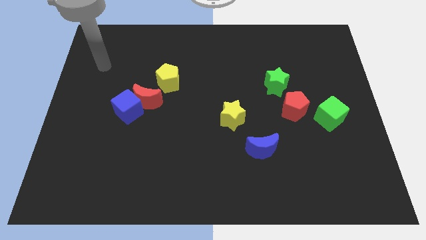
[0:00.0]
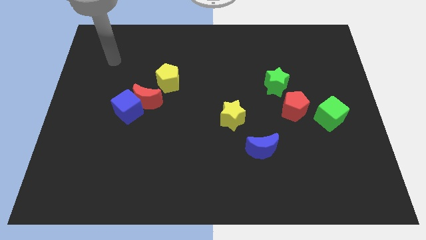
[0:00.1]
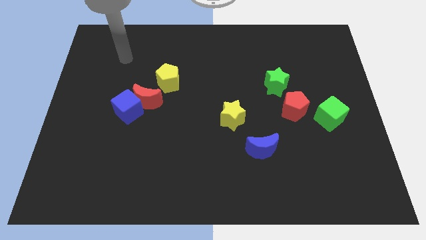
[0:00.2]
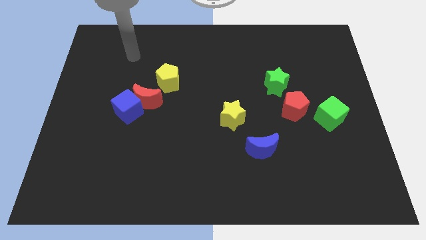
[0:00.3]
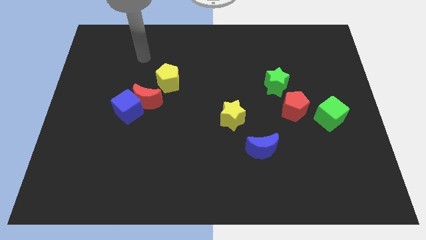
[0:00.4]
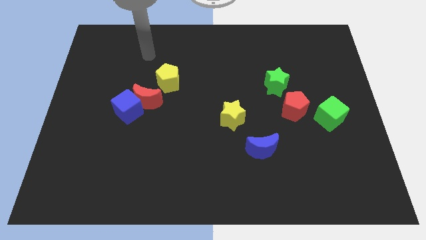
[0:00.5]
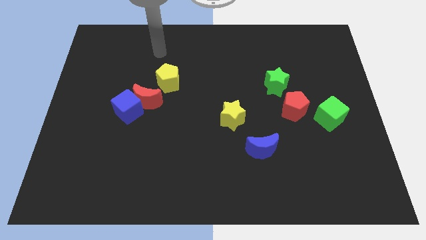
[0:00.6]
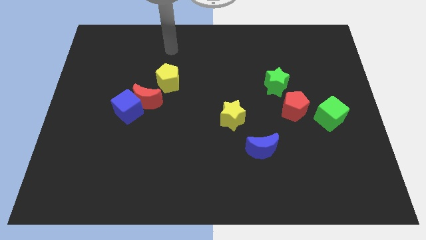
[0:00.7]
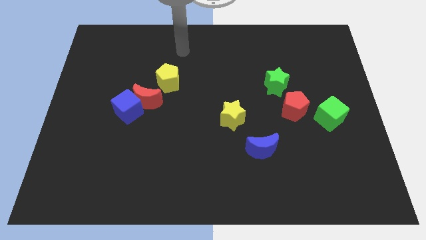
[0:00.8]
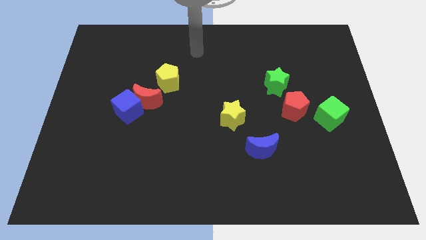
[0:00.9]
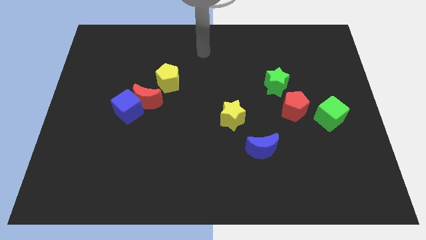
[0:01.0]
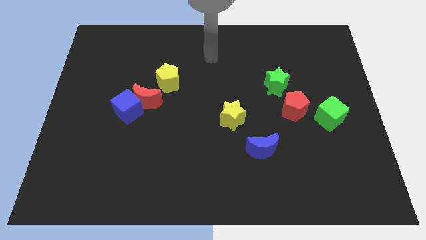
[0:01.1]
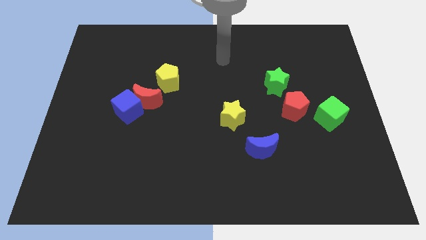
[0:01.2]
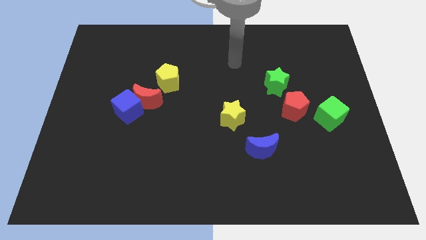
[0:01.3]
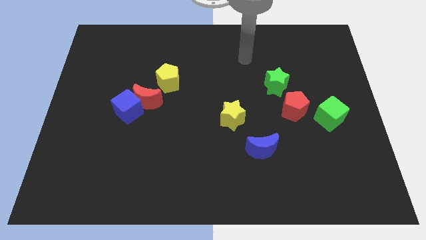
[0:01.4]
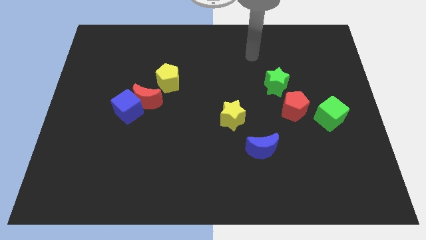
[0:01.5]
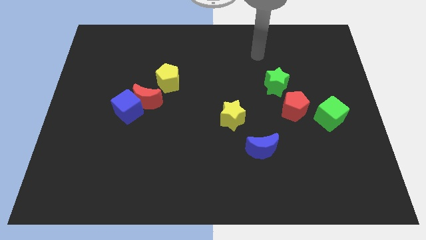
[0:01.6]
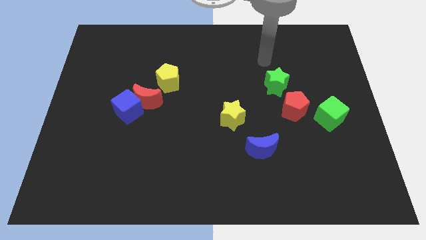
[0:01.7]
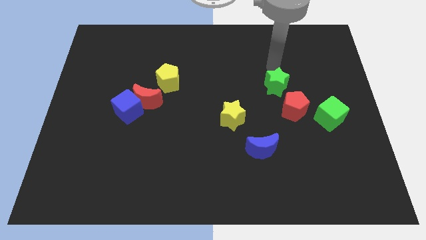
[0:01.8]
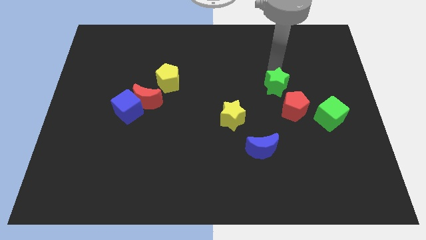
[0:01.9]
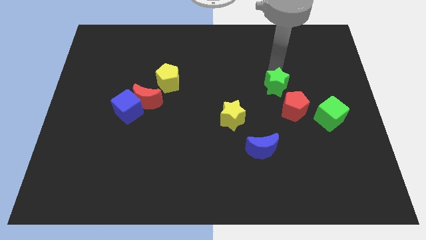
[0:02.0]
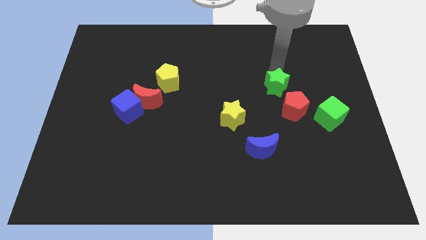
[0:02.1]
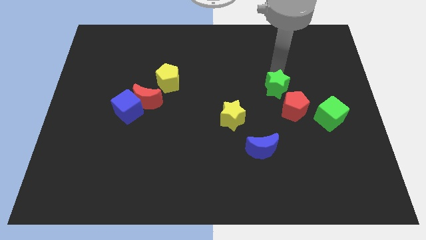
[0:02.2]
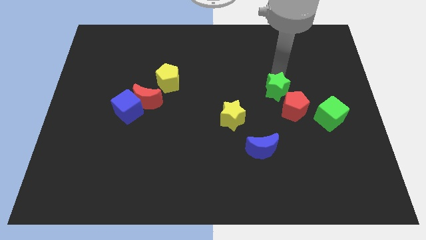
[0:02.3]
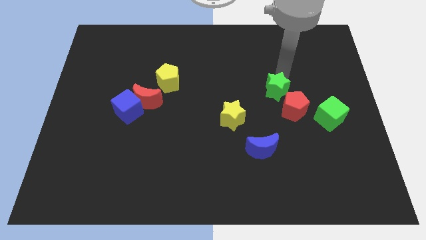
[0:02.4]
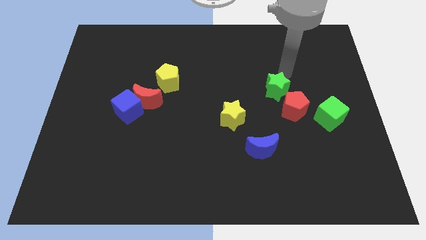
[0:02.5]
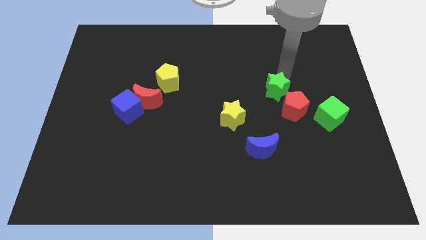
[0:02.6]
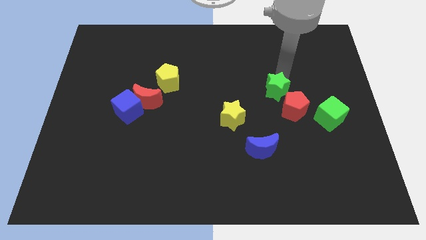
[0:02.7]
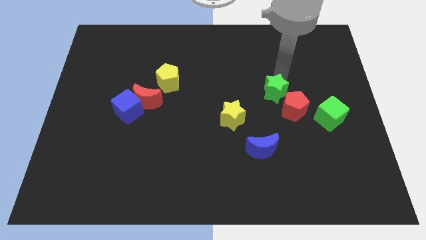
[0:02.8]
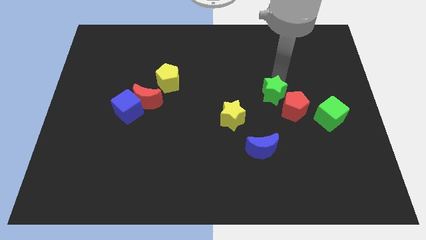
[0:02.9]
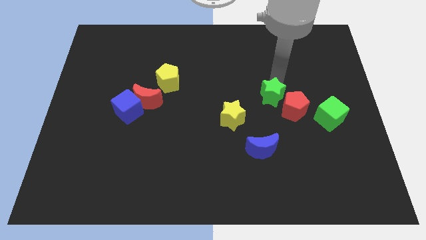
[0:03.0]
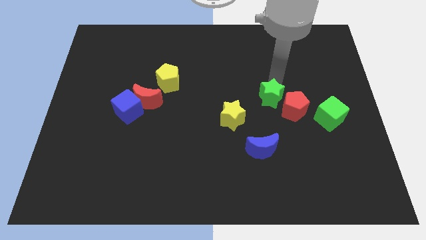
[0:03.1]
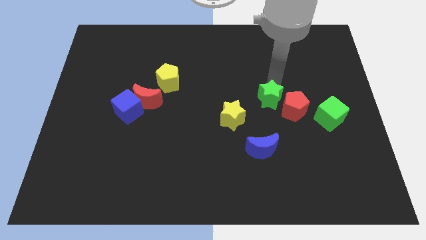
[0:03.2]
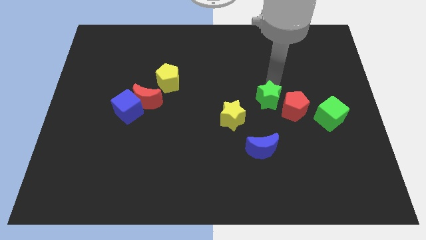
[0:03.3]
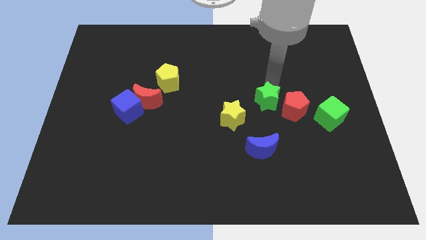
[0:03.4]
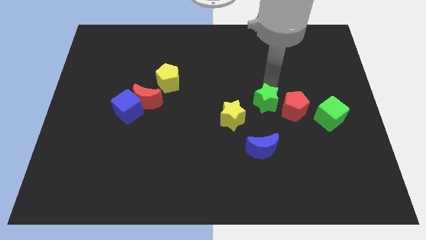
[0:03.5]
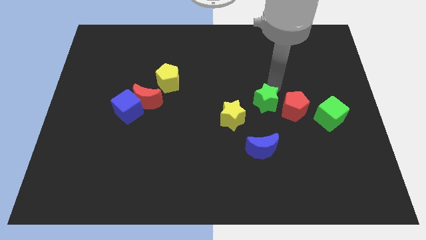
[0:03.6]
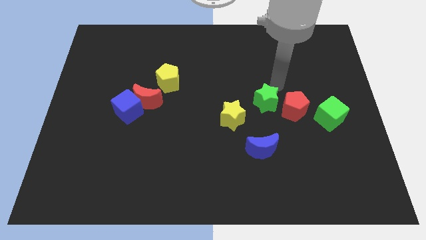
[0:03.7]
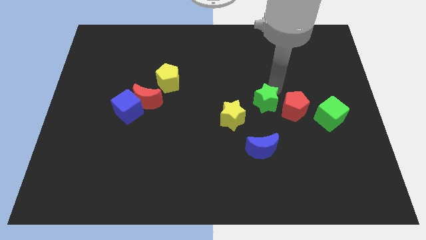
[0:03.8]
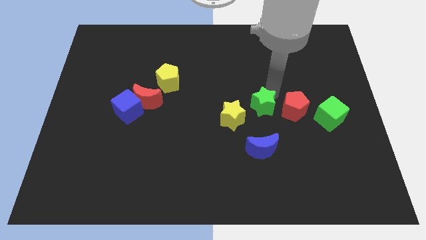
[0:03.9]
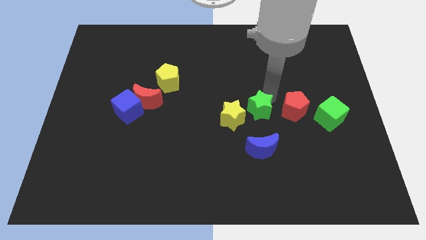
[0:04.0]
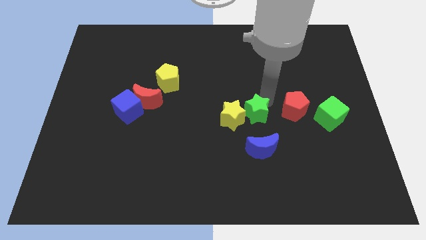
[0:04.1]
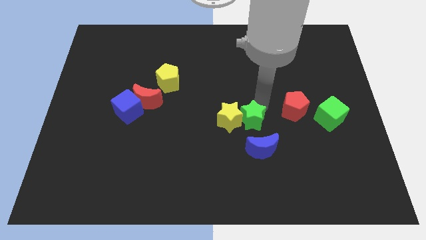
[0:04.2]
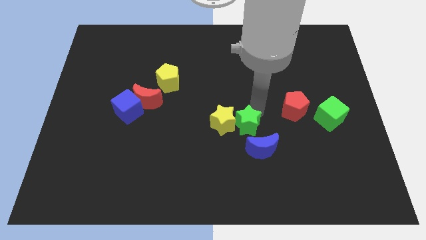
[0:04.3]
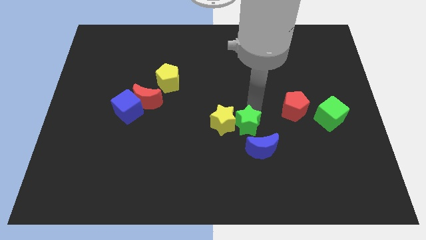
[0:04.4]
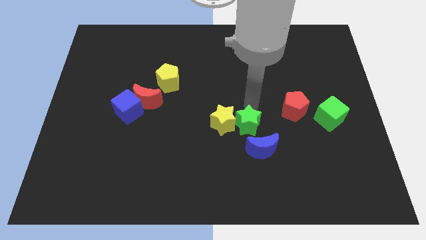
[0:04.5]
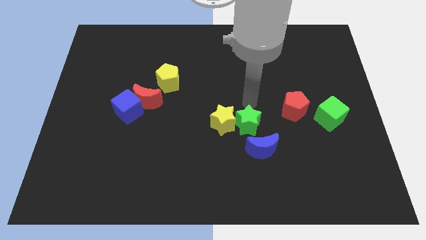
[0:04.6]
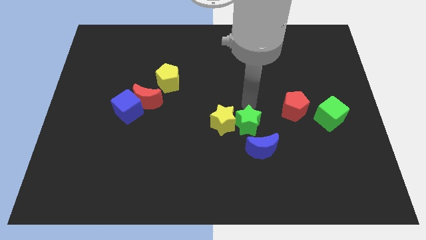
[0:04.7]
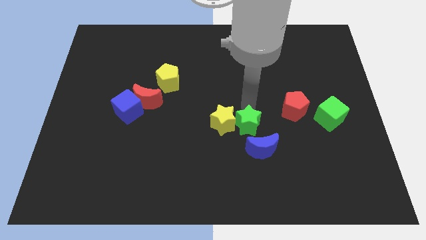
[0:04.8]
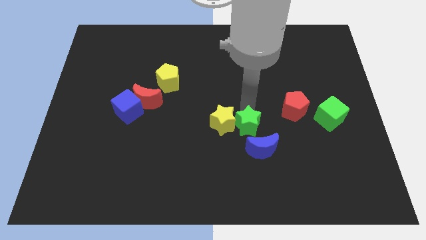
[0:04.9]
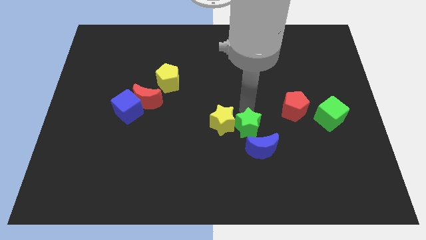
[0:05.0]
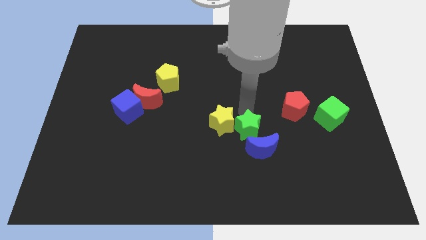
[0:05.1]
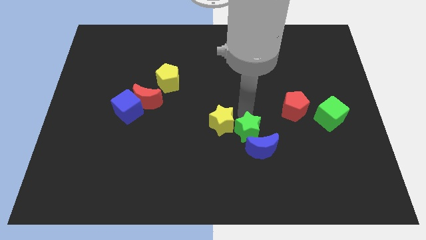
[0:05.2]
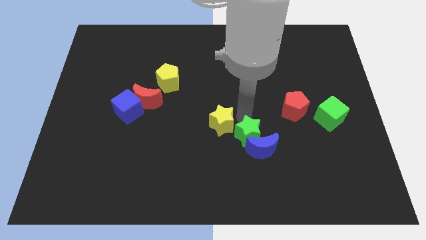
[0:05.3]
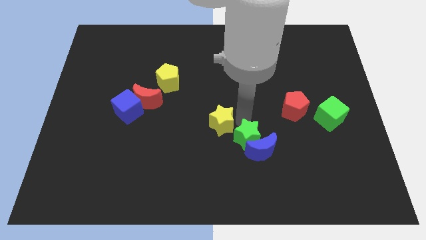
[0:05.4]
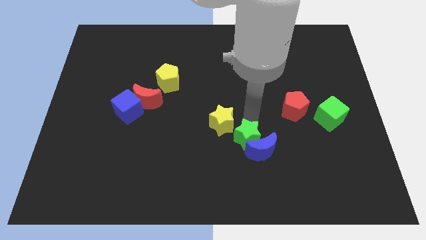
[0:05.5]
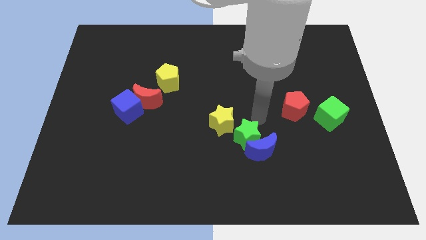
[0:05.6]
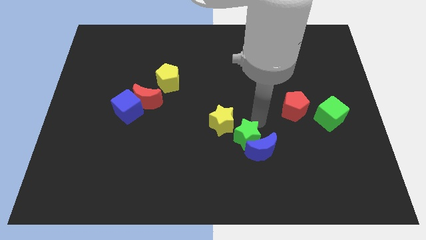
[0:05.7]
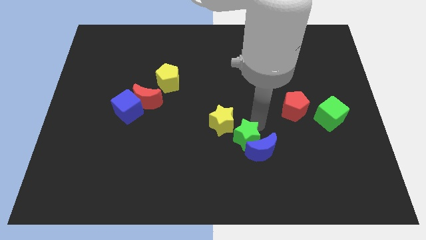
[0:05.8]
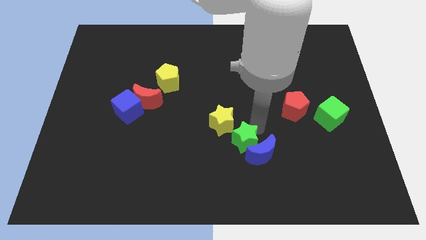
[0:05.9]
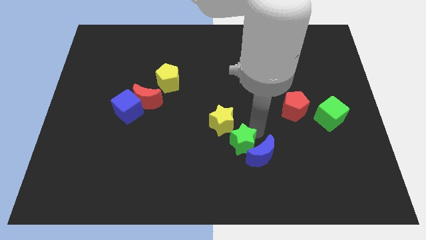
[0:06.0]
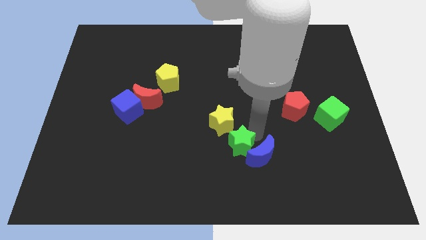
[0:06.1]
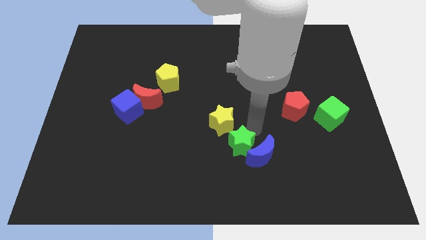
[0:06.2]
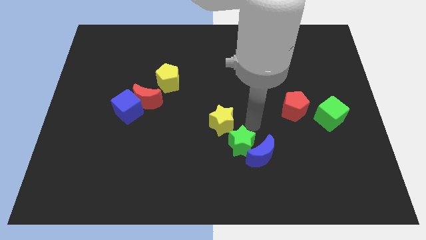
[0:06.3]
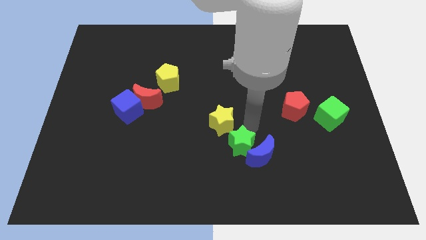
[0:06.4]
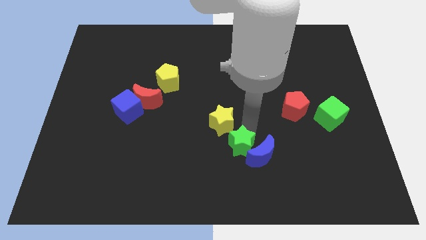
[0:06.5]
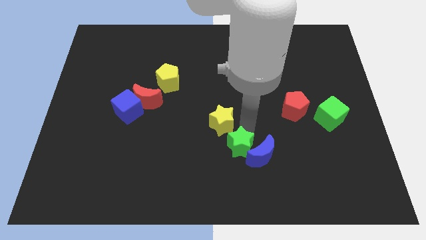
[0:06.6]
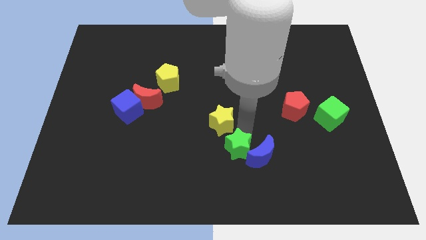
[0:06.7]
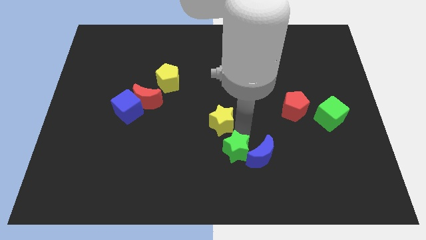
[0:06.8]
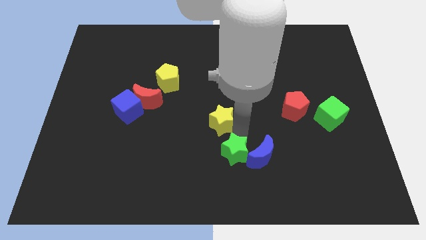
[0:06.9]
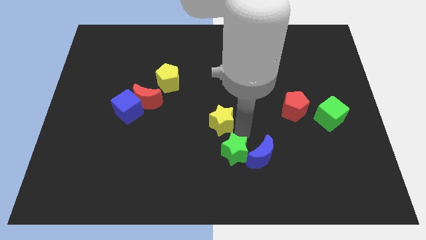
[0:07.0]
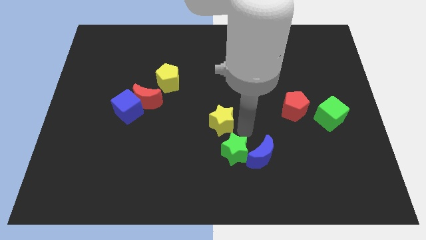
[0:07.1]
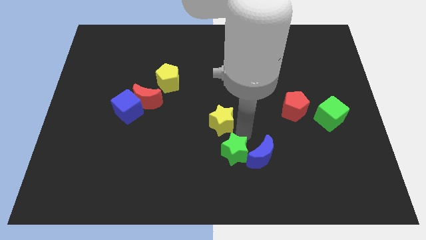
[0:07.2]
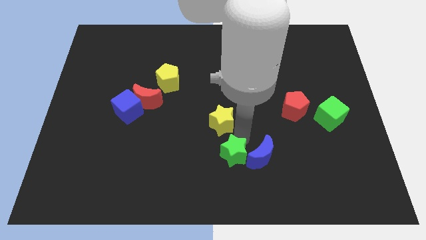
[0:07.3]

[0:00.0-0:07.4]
slide the green star to the bottom side
